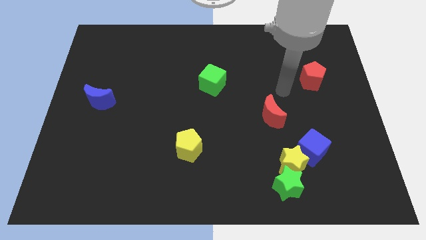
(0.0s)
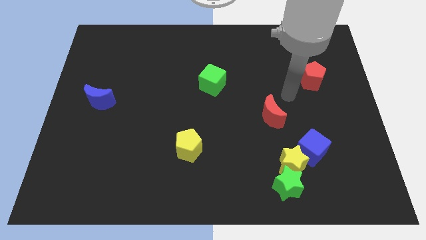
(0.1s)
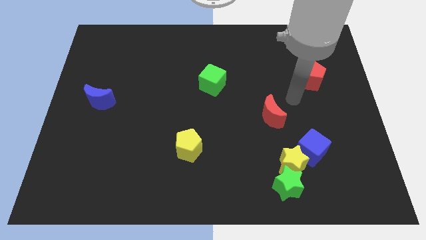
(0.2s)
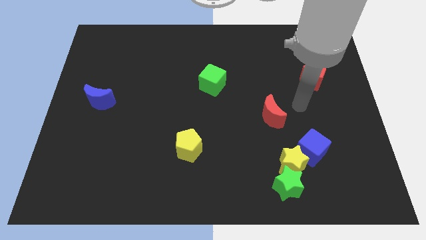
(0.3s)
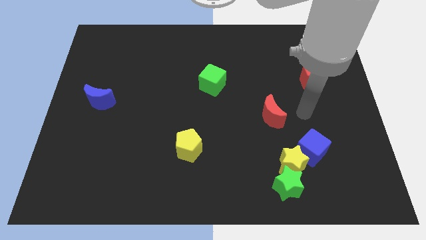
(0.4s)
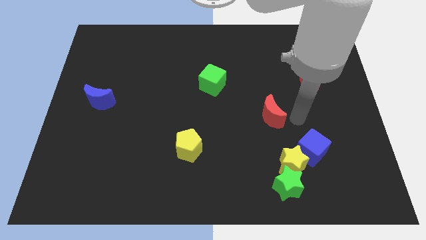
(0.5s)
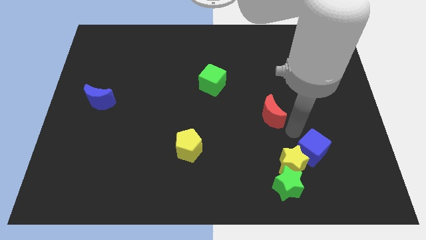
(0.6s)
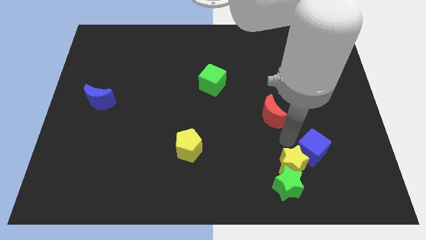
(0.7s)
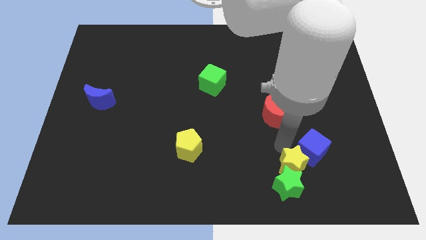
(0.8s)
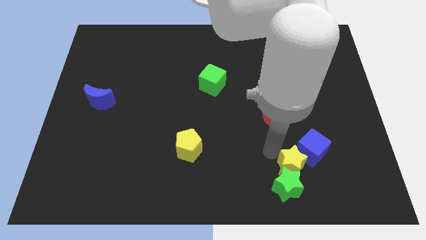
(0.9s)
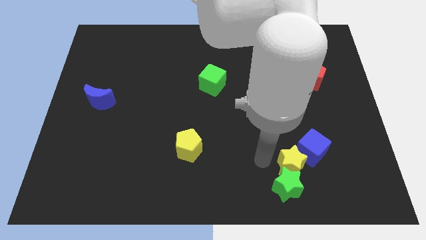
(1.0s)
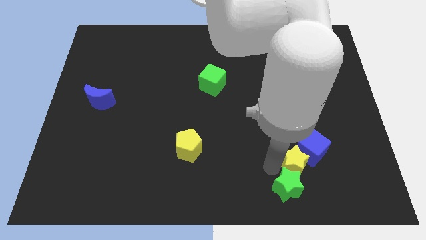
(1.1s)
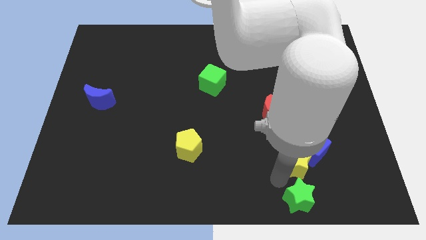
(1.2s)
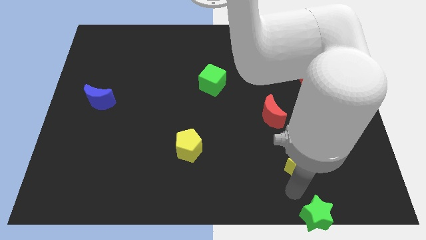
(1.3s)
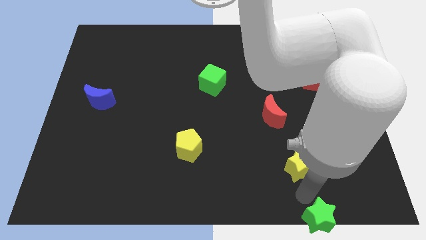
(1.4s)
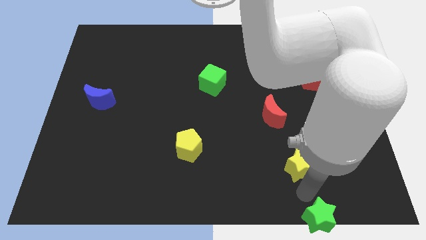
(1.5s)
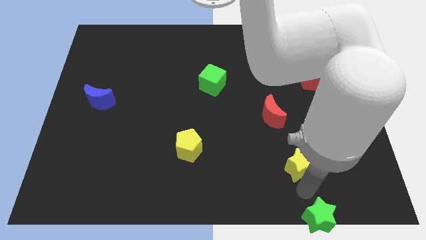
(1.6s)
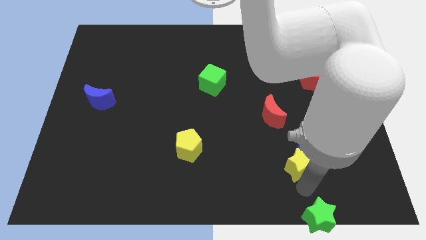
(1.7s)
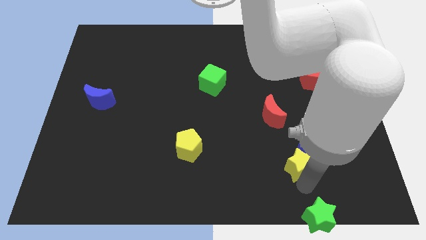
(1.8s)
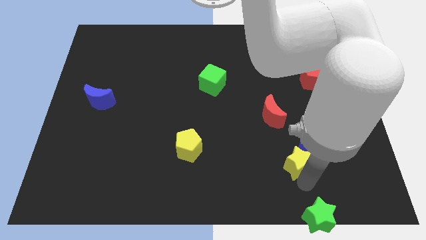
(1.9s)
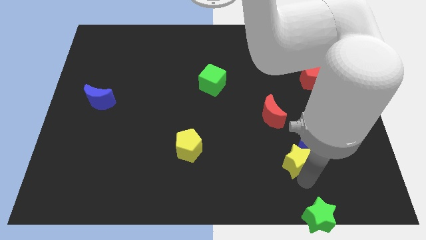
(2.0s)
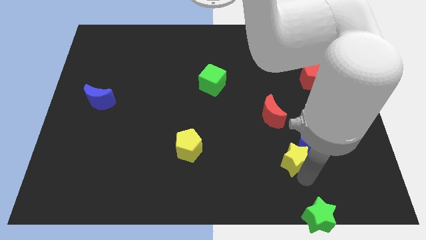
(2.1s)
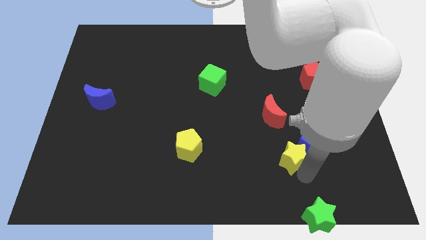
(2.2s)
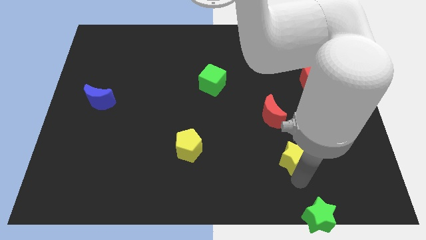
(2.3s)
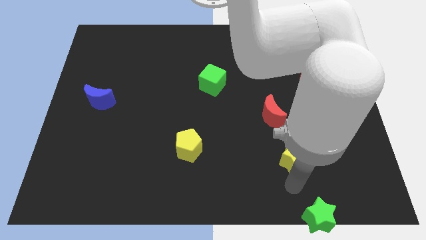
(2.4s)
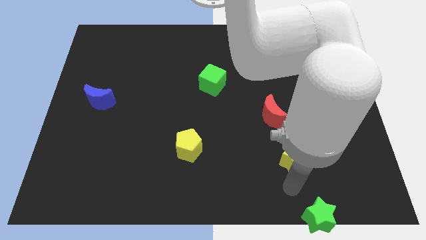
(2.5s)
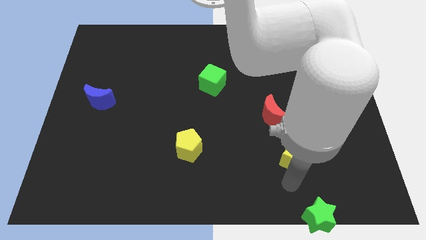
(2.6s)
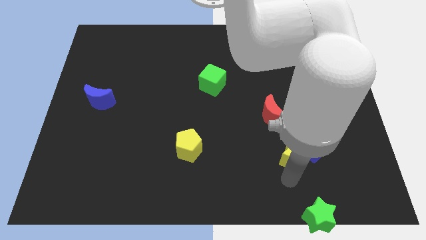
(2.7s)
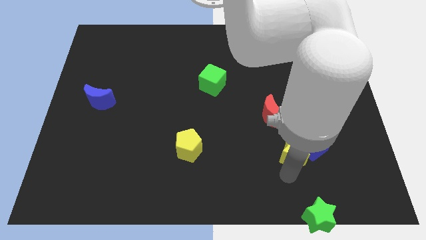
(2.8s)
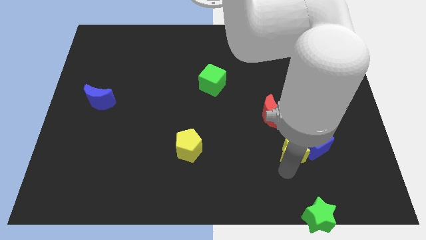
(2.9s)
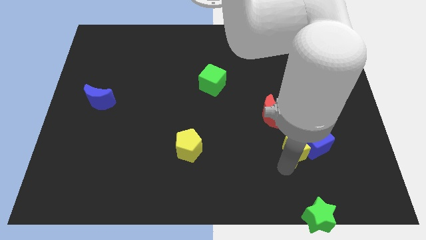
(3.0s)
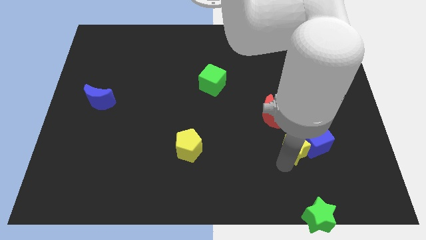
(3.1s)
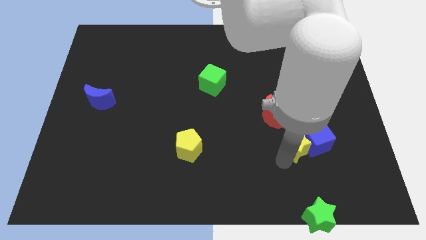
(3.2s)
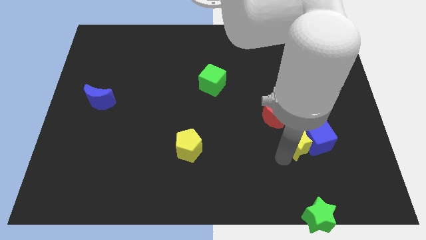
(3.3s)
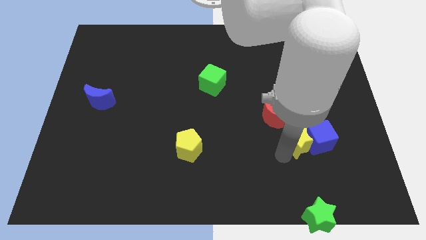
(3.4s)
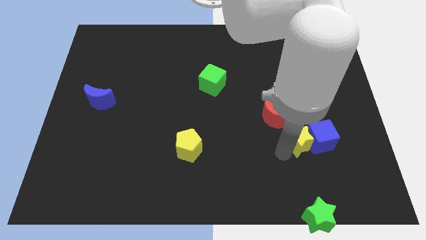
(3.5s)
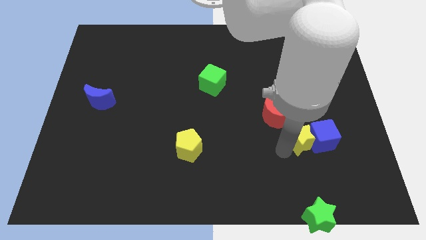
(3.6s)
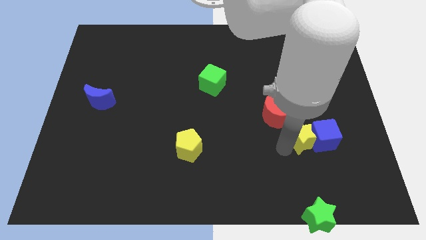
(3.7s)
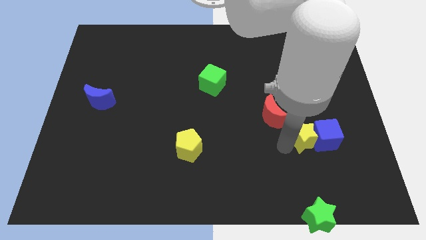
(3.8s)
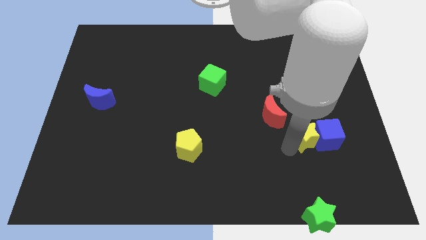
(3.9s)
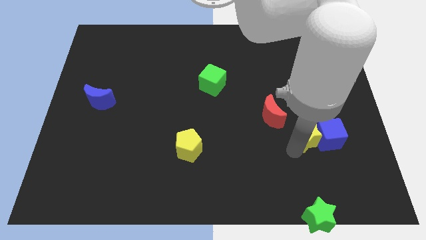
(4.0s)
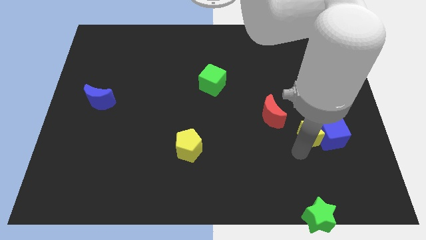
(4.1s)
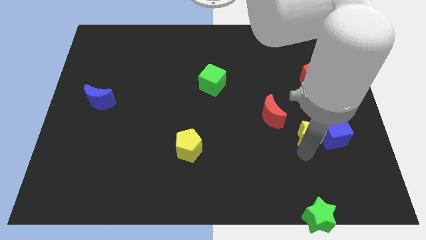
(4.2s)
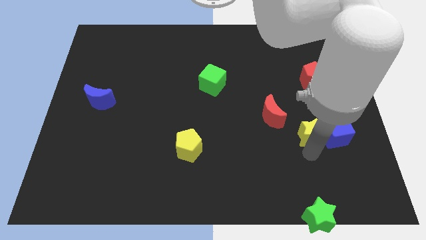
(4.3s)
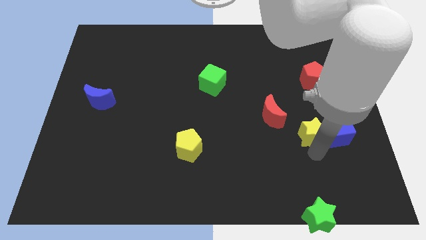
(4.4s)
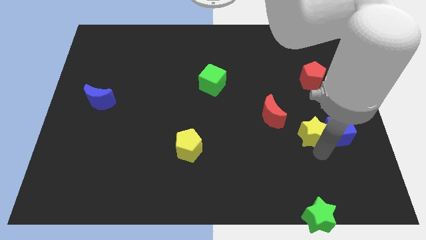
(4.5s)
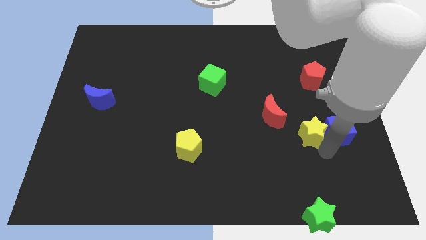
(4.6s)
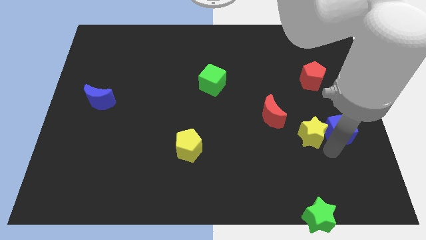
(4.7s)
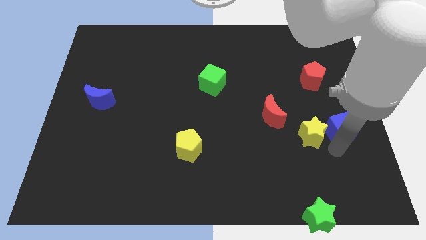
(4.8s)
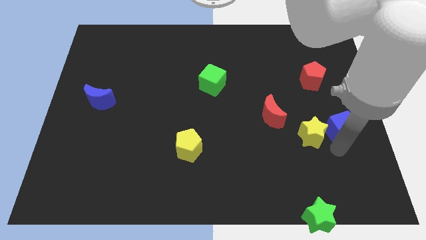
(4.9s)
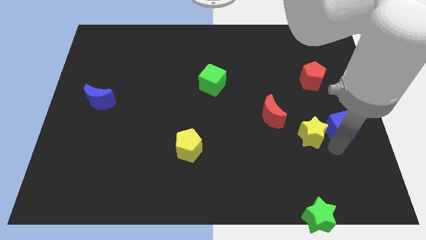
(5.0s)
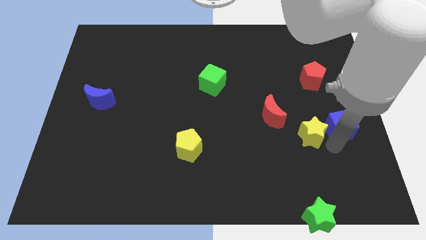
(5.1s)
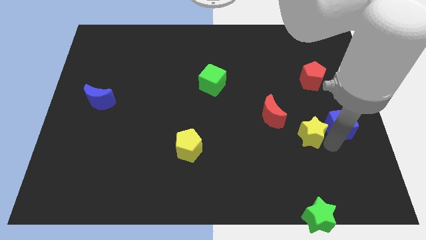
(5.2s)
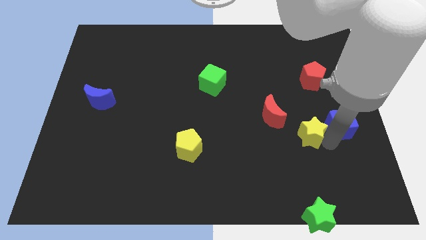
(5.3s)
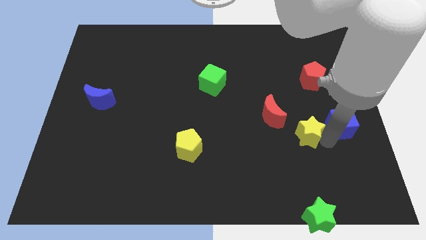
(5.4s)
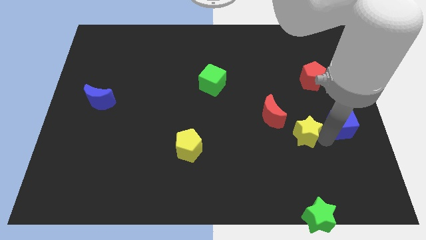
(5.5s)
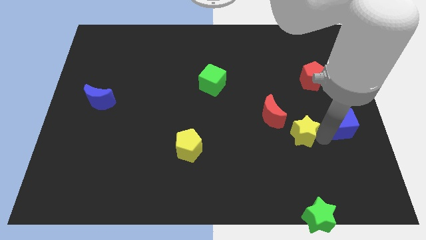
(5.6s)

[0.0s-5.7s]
slightly move the yellow star upwards

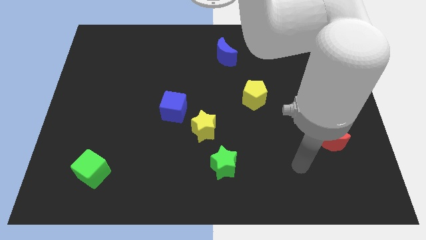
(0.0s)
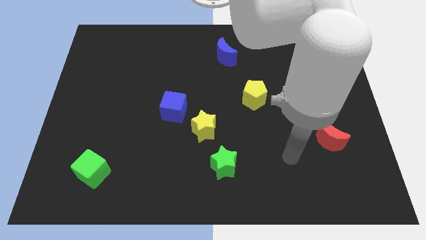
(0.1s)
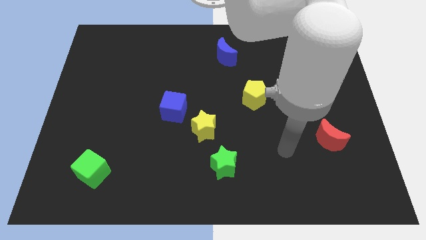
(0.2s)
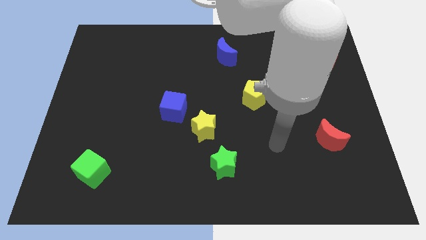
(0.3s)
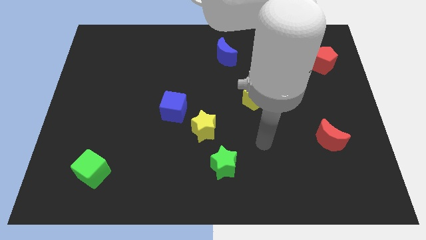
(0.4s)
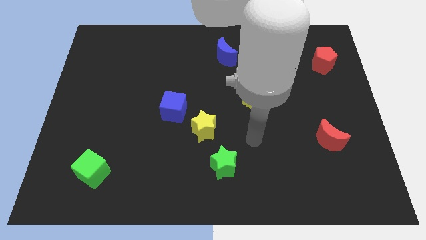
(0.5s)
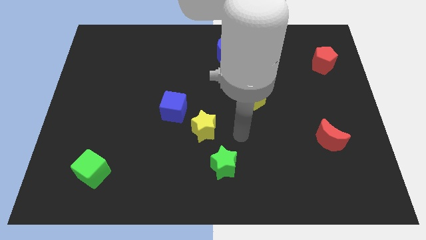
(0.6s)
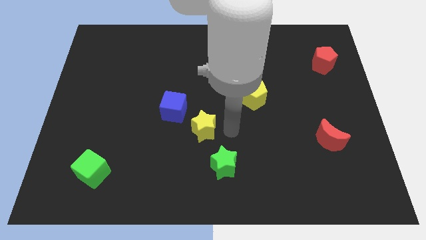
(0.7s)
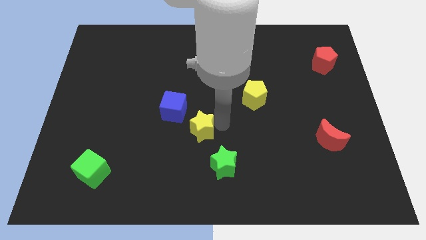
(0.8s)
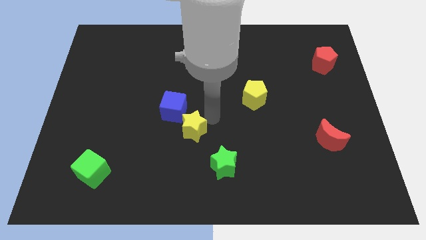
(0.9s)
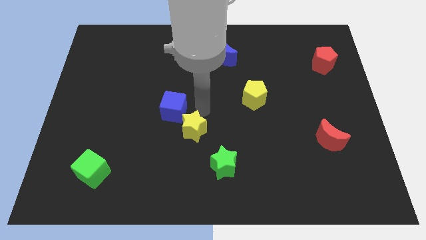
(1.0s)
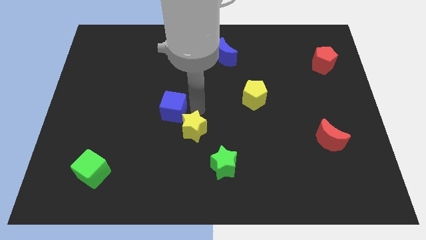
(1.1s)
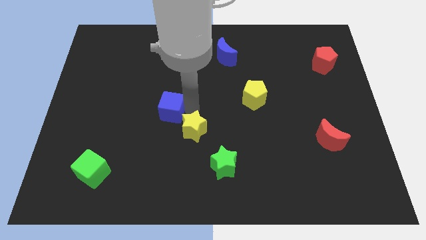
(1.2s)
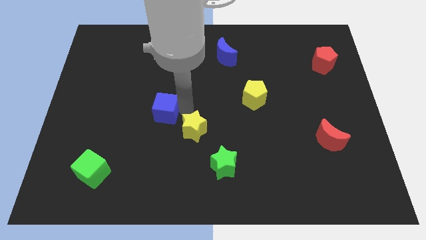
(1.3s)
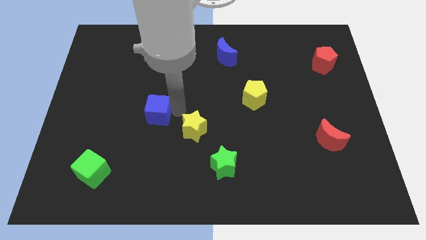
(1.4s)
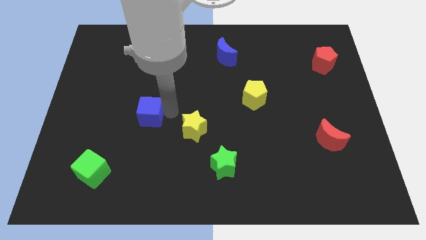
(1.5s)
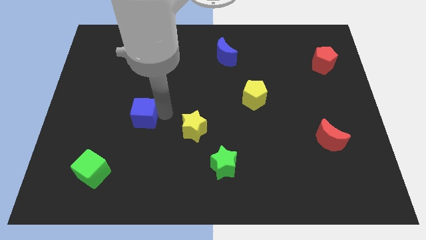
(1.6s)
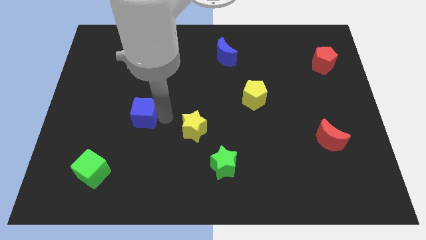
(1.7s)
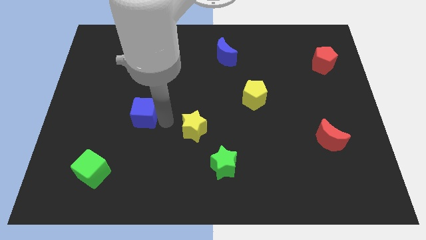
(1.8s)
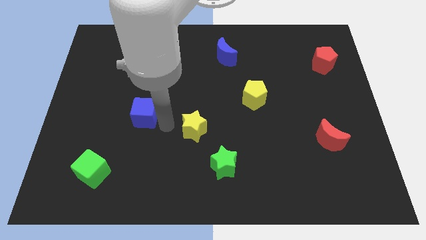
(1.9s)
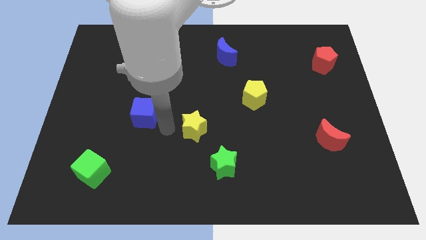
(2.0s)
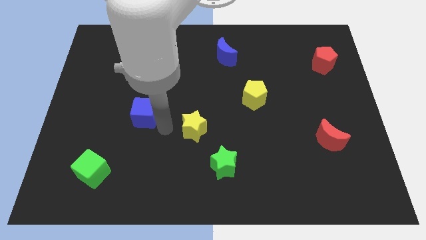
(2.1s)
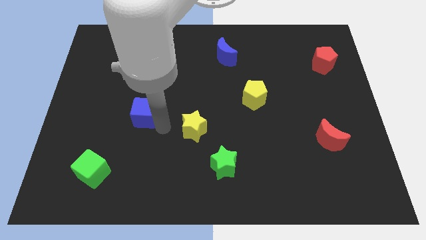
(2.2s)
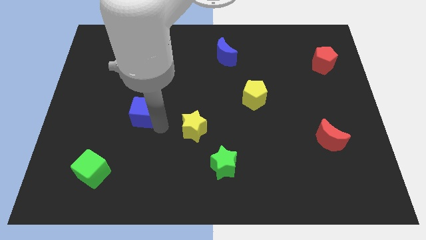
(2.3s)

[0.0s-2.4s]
slightly push the blue cube left
